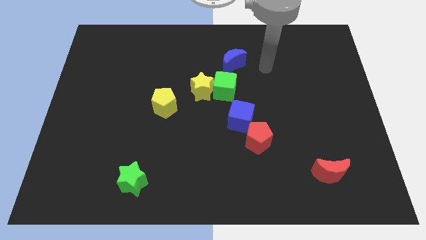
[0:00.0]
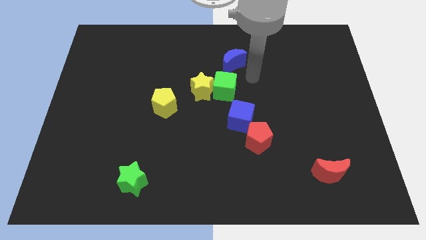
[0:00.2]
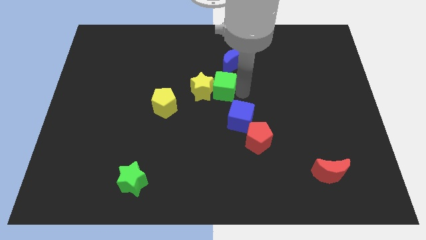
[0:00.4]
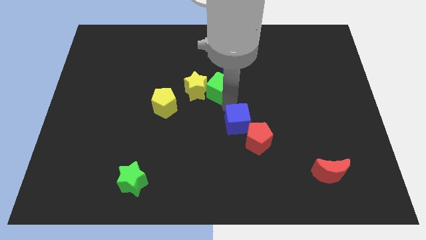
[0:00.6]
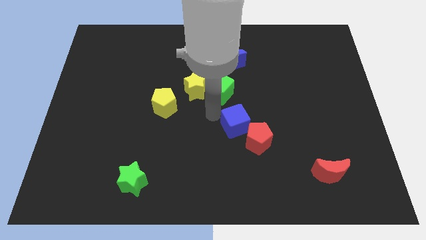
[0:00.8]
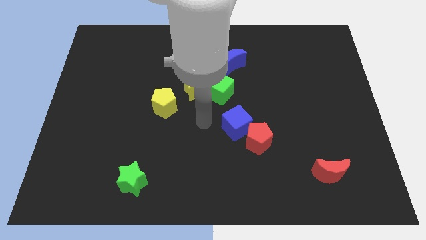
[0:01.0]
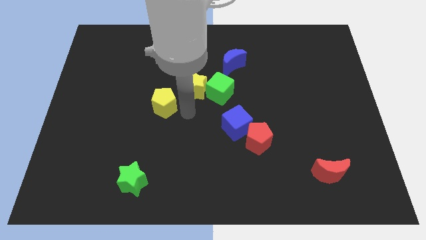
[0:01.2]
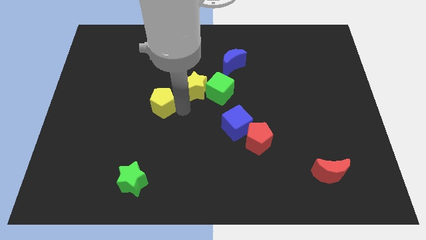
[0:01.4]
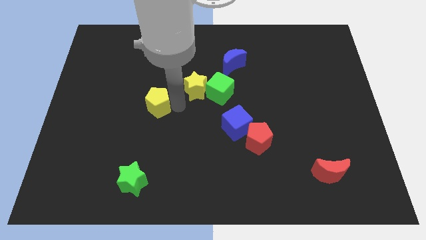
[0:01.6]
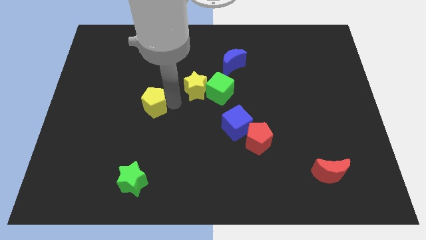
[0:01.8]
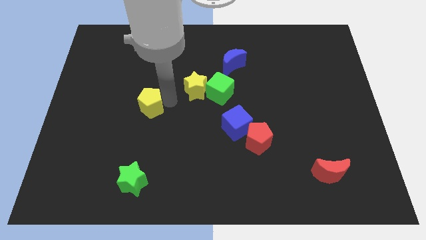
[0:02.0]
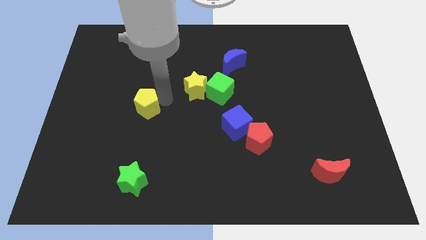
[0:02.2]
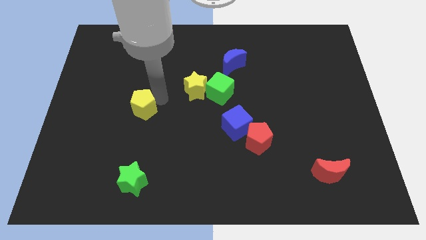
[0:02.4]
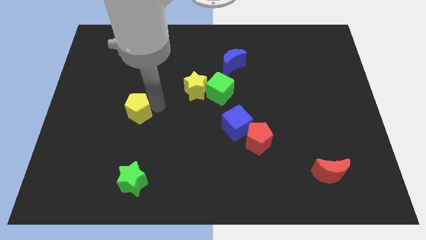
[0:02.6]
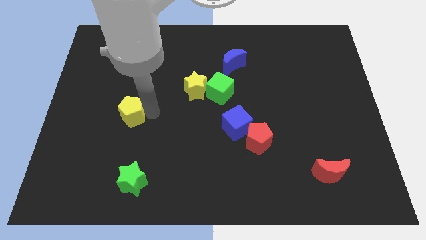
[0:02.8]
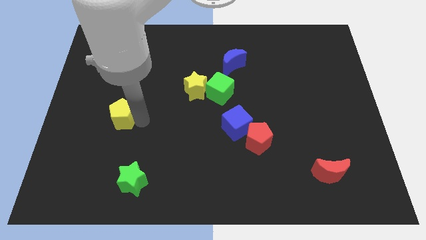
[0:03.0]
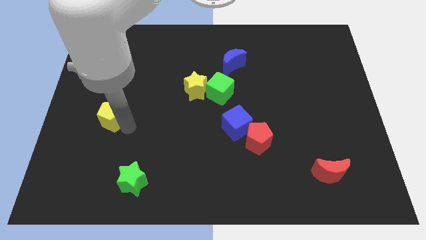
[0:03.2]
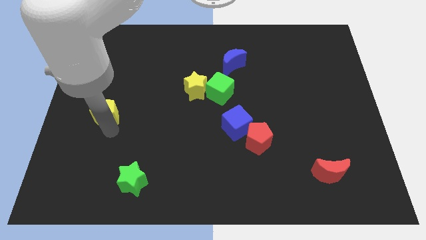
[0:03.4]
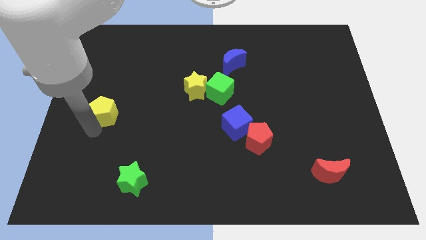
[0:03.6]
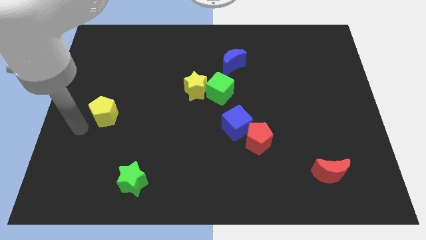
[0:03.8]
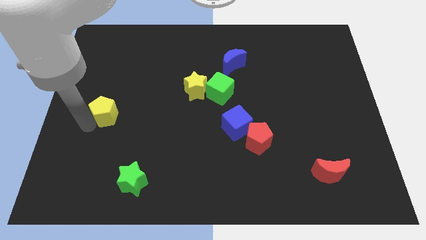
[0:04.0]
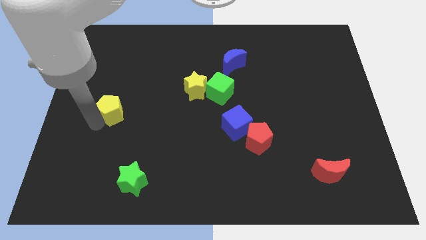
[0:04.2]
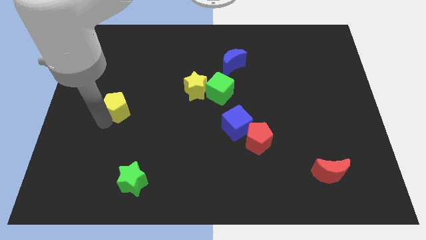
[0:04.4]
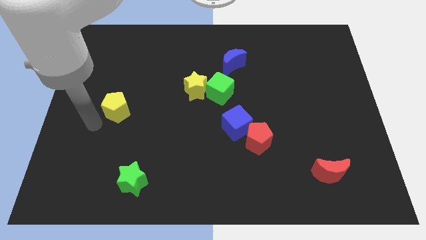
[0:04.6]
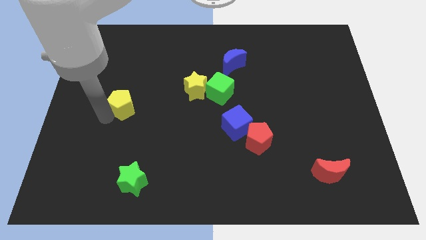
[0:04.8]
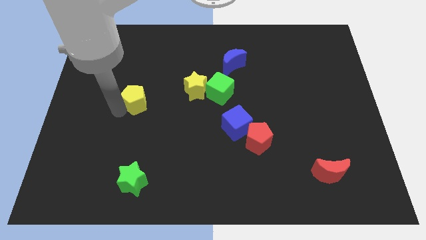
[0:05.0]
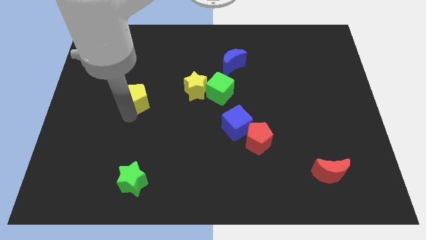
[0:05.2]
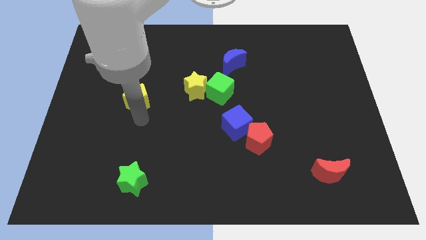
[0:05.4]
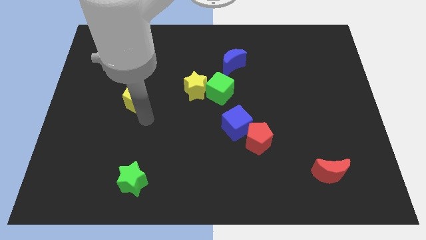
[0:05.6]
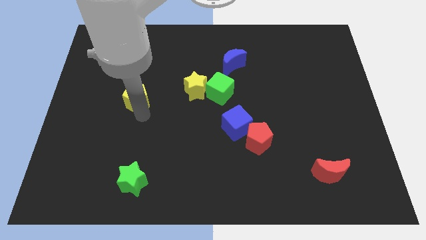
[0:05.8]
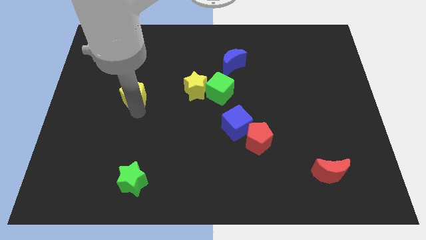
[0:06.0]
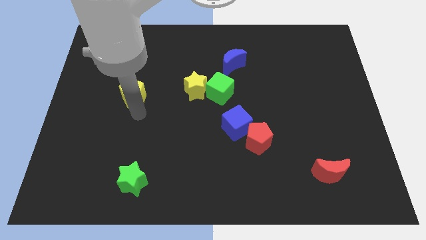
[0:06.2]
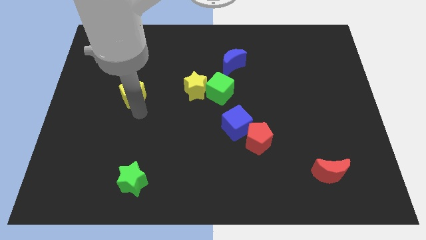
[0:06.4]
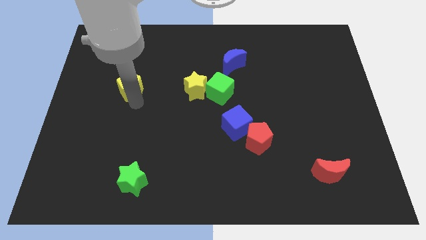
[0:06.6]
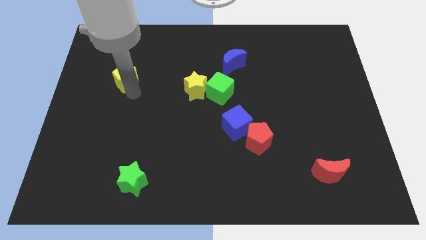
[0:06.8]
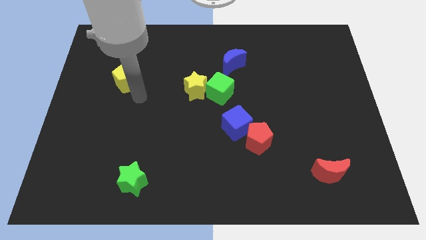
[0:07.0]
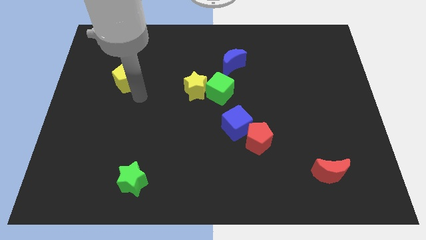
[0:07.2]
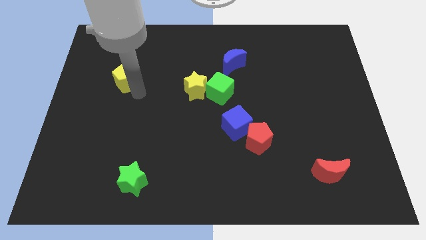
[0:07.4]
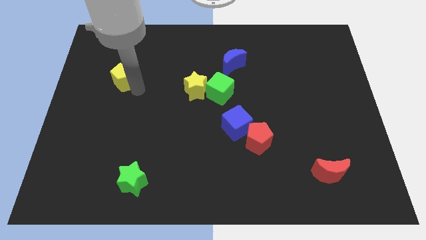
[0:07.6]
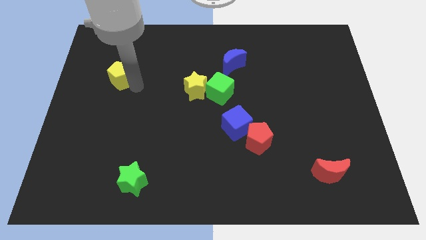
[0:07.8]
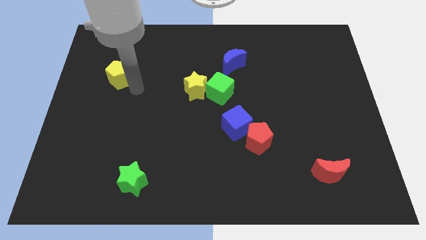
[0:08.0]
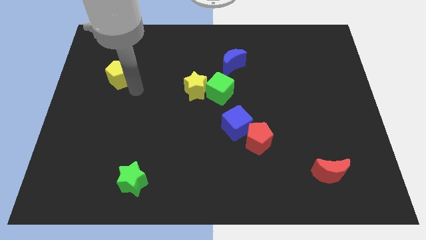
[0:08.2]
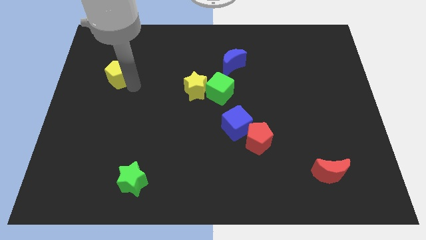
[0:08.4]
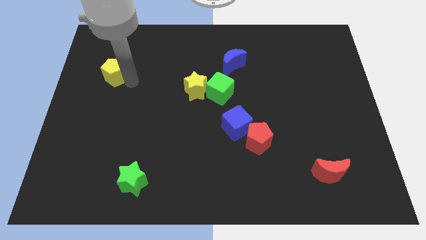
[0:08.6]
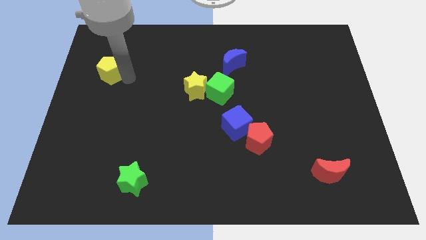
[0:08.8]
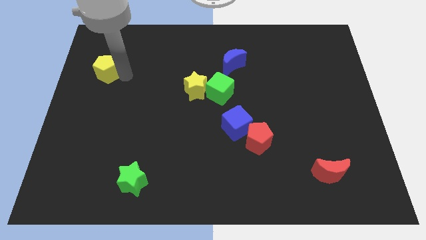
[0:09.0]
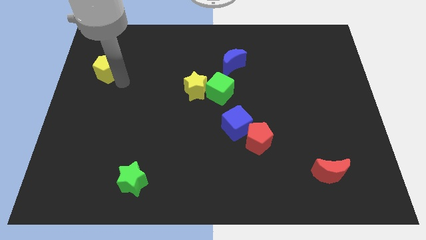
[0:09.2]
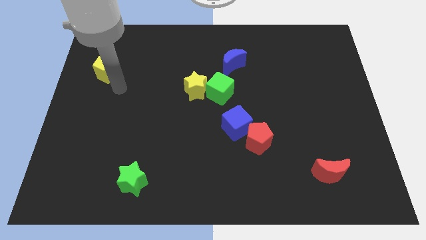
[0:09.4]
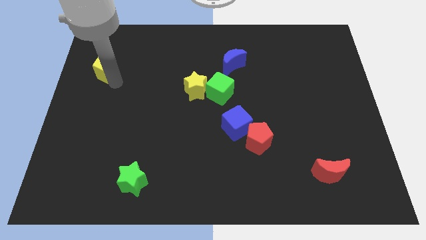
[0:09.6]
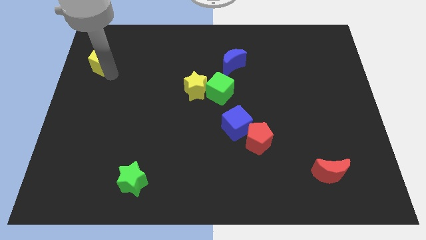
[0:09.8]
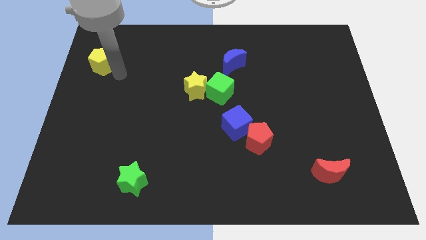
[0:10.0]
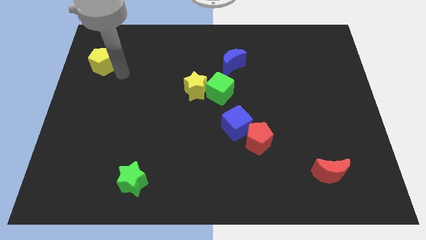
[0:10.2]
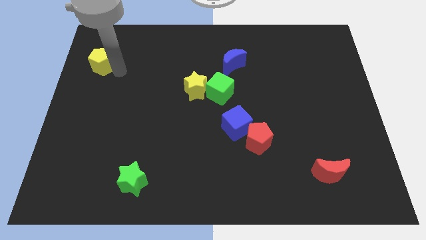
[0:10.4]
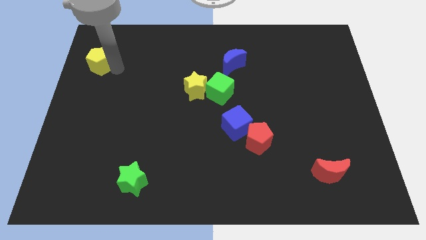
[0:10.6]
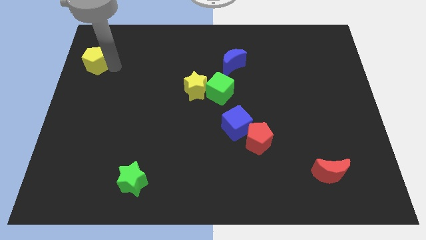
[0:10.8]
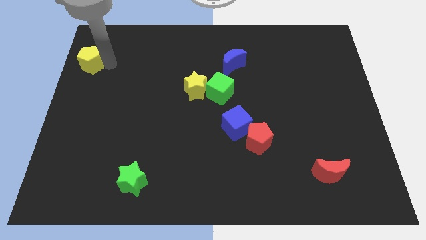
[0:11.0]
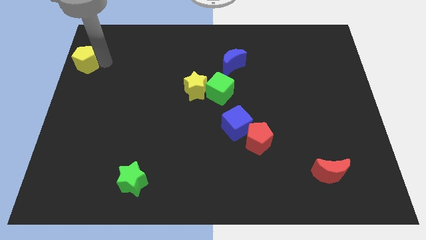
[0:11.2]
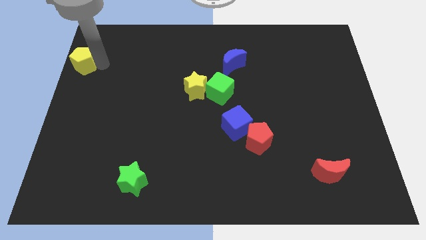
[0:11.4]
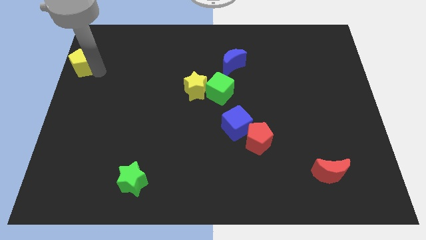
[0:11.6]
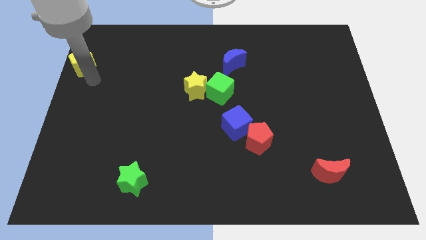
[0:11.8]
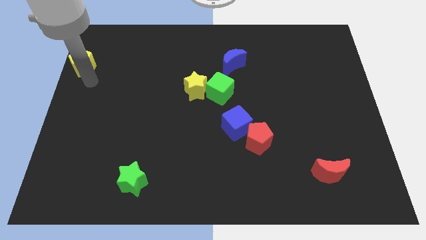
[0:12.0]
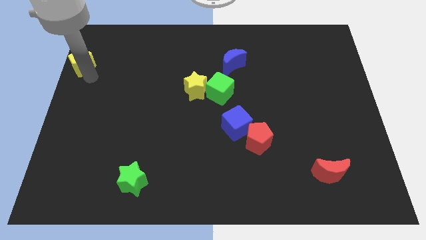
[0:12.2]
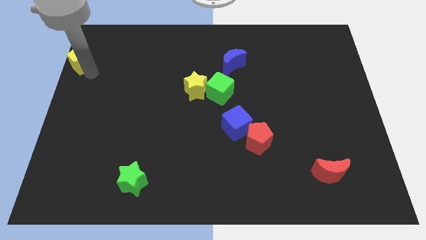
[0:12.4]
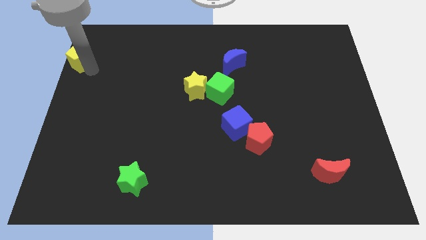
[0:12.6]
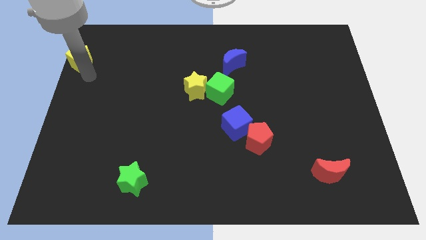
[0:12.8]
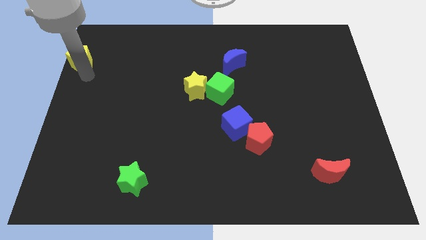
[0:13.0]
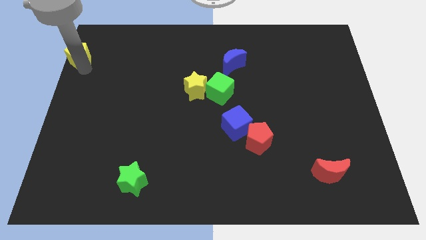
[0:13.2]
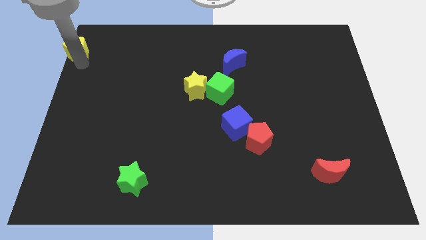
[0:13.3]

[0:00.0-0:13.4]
put the yellow pentagon to the top left corner
